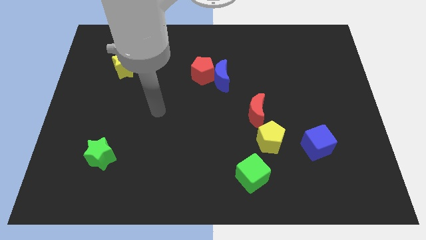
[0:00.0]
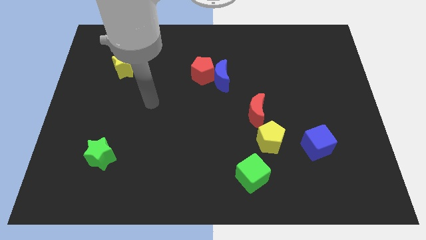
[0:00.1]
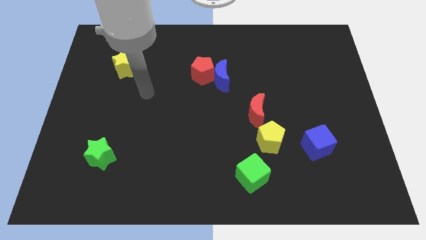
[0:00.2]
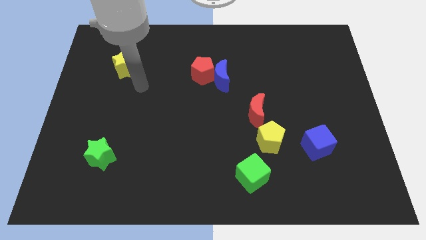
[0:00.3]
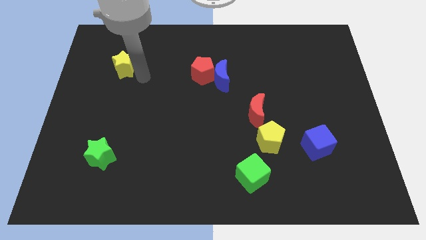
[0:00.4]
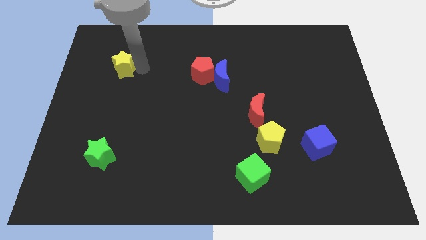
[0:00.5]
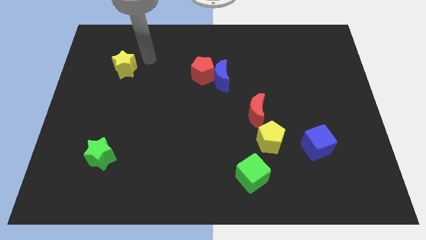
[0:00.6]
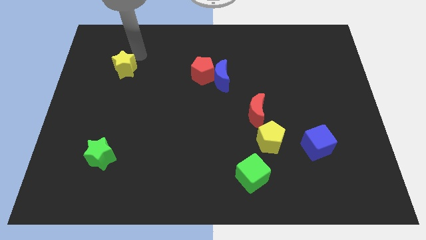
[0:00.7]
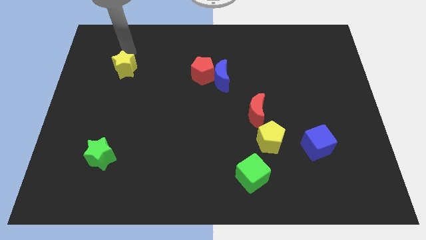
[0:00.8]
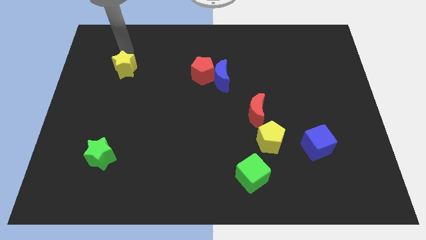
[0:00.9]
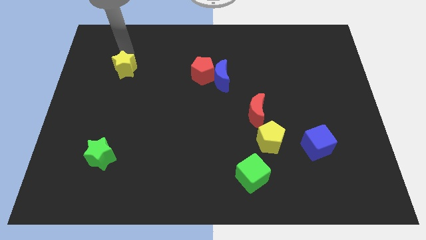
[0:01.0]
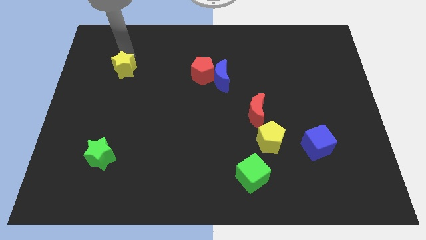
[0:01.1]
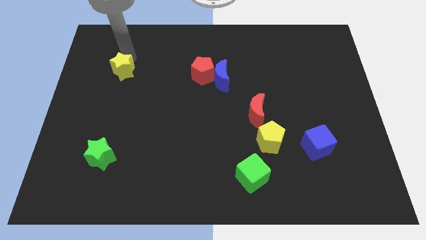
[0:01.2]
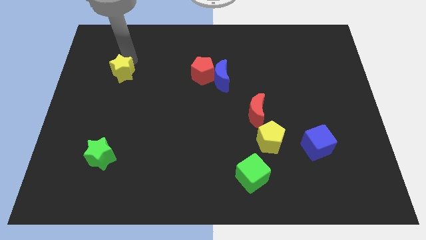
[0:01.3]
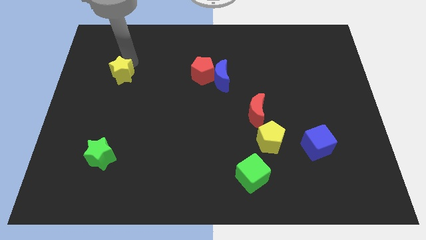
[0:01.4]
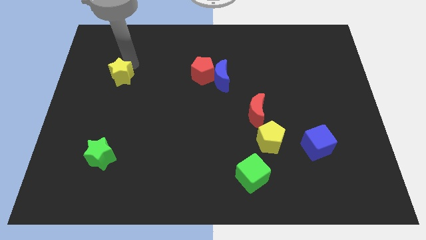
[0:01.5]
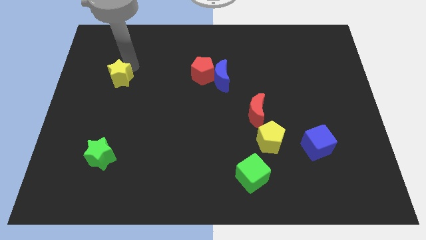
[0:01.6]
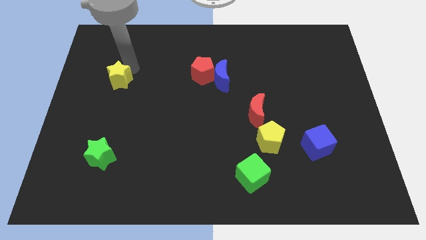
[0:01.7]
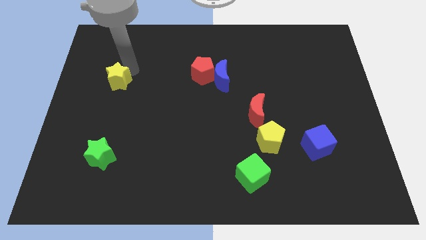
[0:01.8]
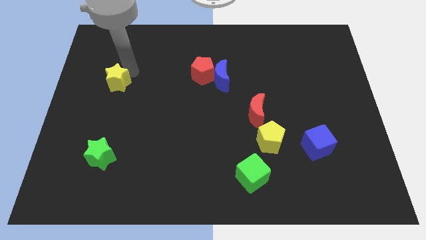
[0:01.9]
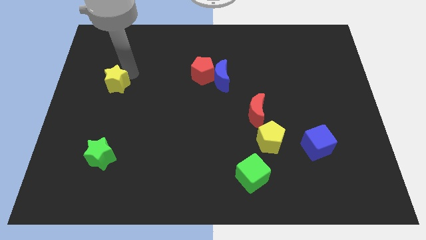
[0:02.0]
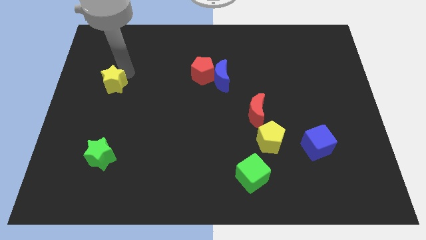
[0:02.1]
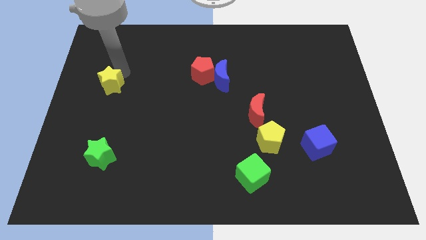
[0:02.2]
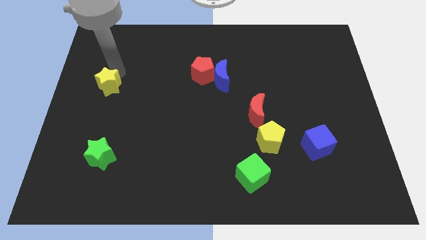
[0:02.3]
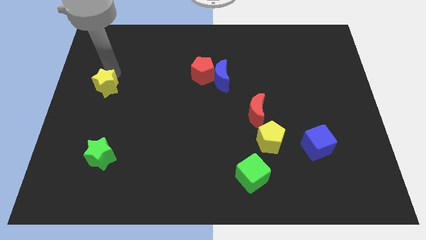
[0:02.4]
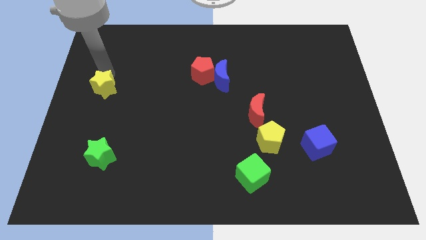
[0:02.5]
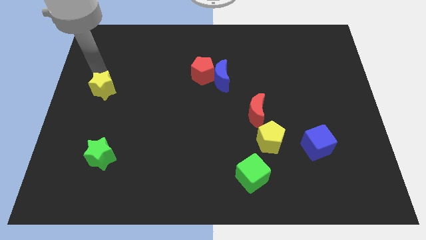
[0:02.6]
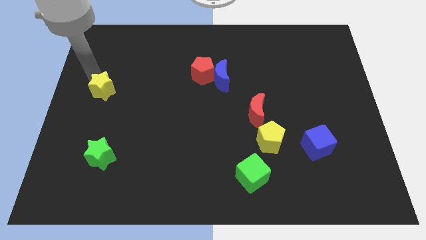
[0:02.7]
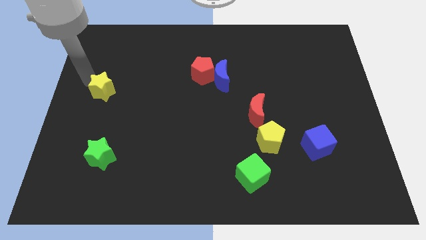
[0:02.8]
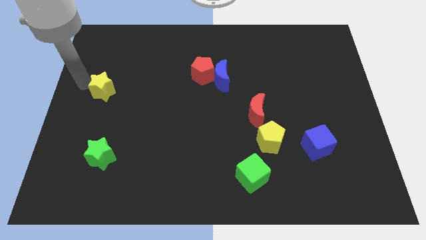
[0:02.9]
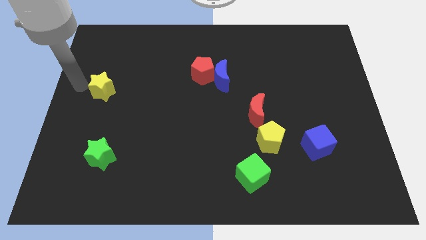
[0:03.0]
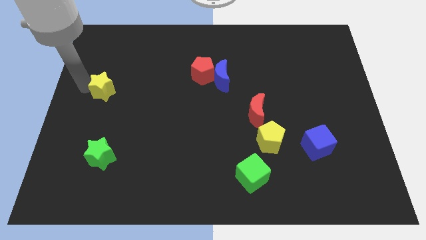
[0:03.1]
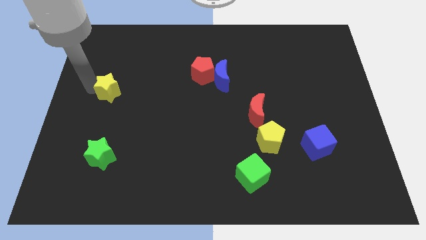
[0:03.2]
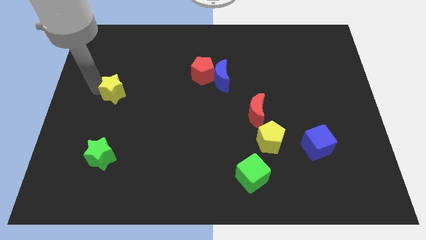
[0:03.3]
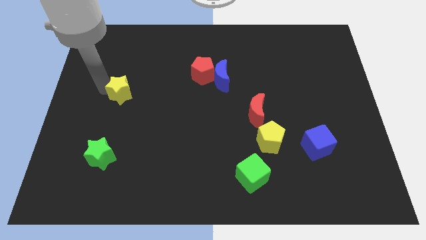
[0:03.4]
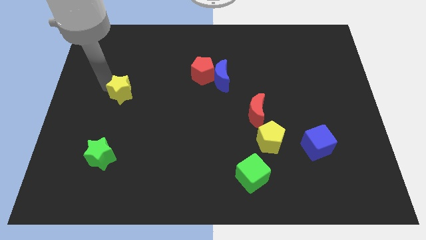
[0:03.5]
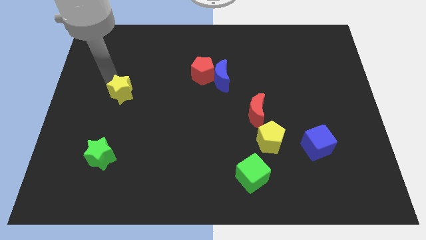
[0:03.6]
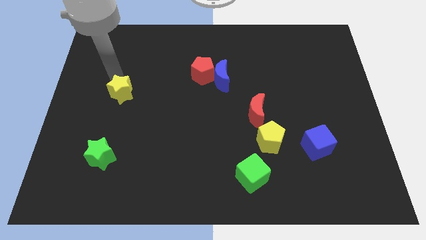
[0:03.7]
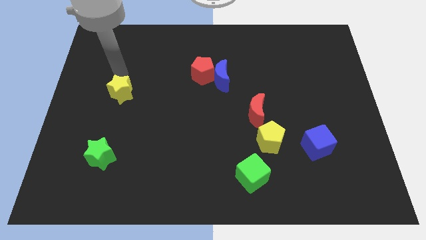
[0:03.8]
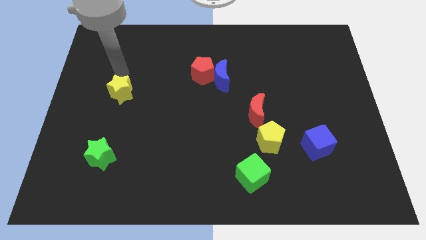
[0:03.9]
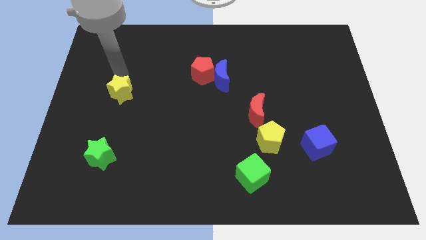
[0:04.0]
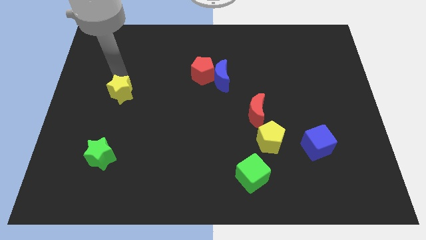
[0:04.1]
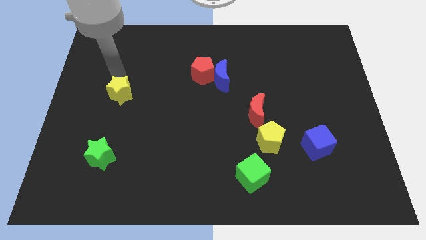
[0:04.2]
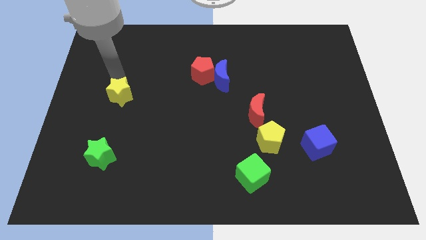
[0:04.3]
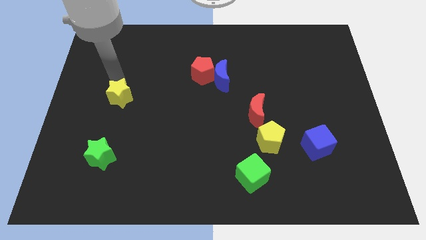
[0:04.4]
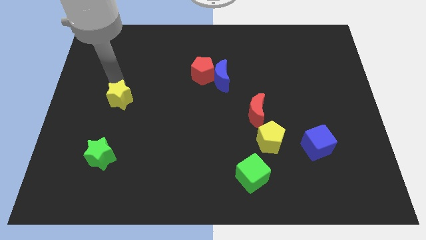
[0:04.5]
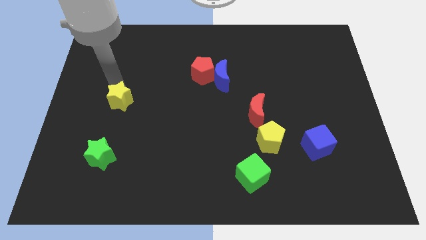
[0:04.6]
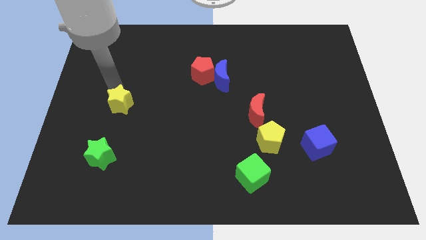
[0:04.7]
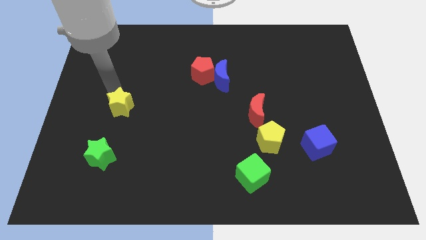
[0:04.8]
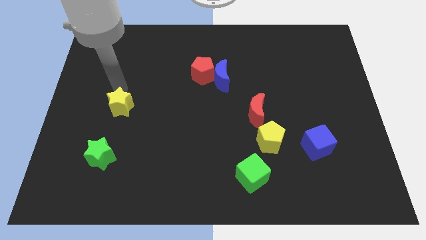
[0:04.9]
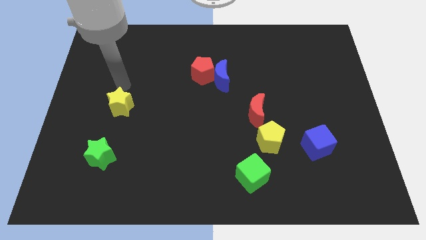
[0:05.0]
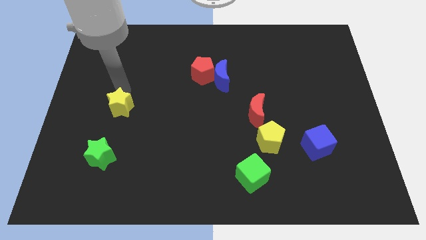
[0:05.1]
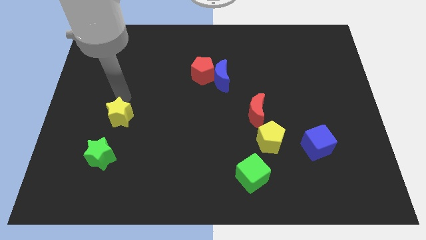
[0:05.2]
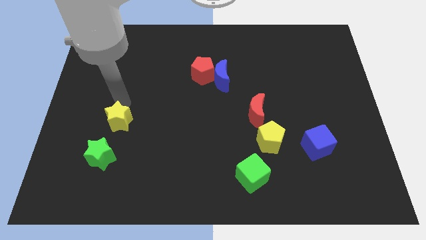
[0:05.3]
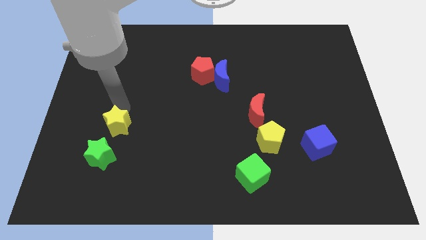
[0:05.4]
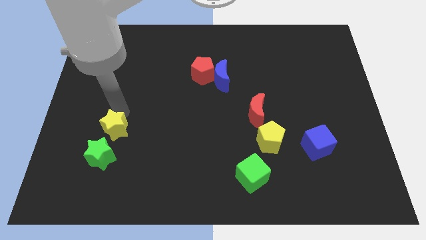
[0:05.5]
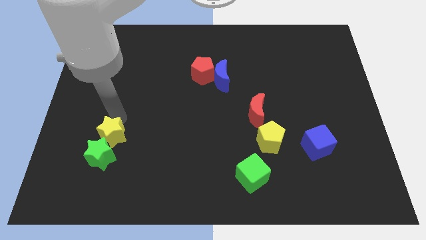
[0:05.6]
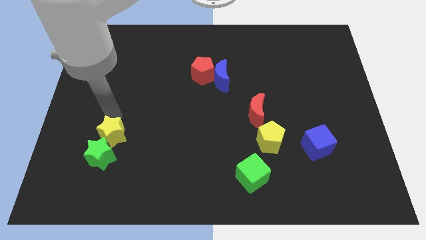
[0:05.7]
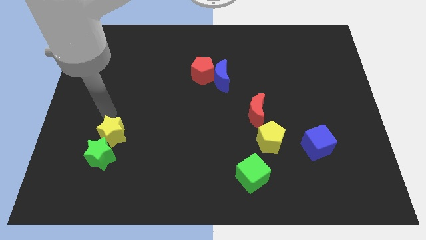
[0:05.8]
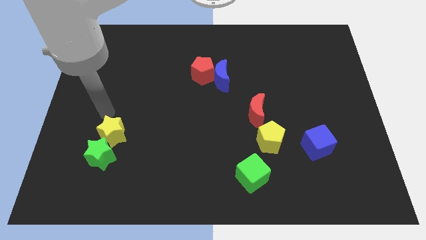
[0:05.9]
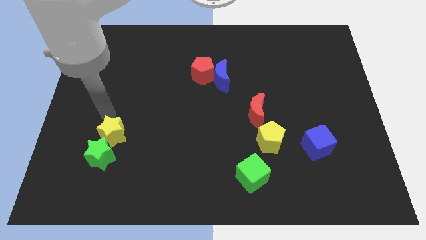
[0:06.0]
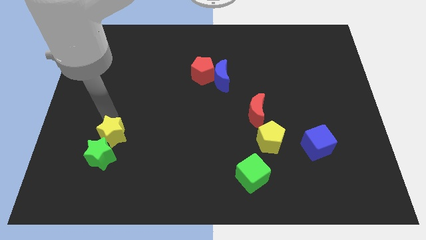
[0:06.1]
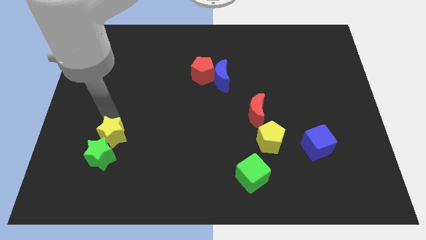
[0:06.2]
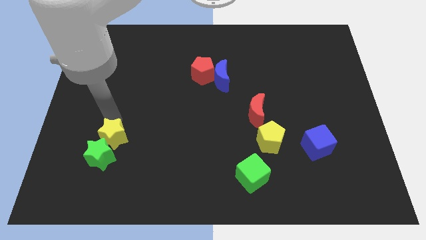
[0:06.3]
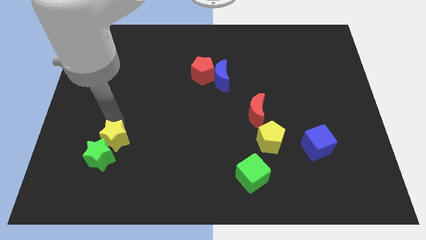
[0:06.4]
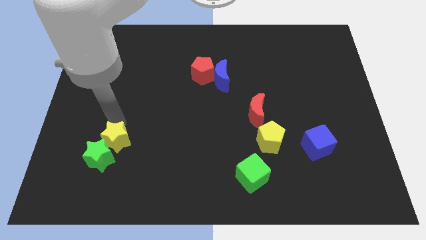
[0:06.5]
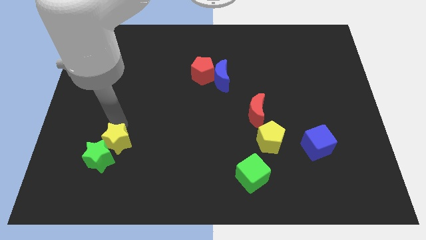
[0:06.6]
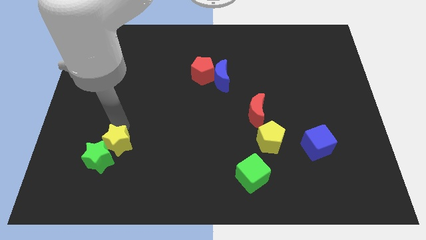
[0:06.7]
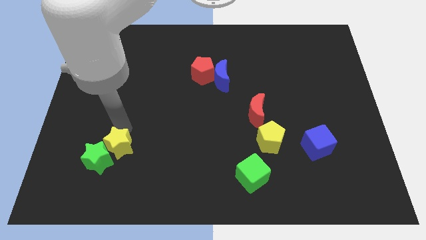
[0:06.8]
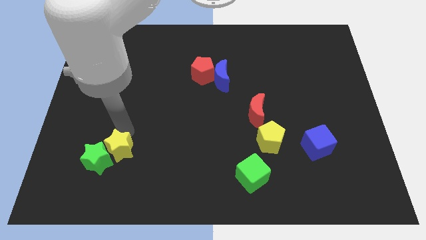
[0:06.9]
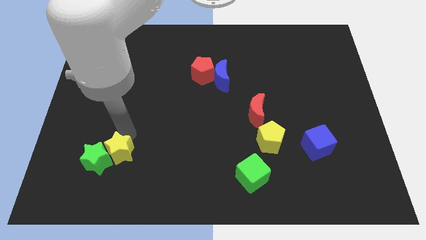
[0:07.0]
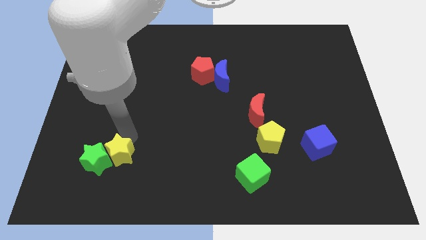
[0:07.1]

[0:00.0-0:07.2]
move the yellow star diagonally down and to the right of the green star

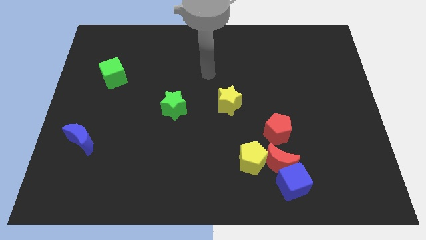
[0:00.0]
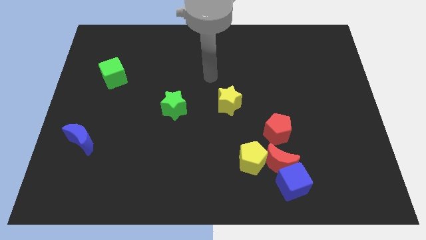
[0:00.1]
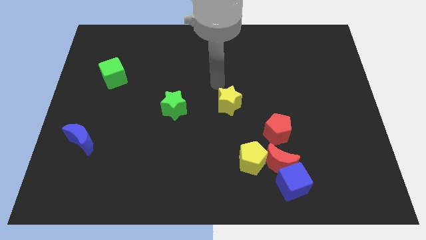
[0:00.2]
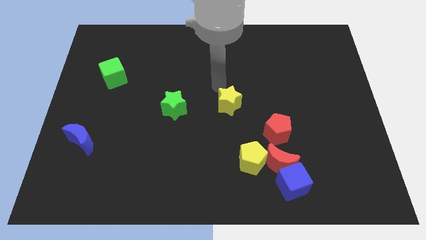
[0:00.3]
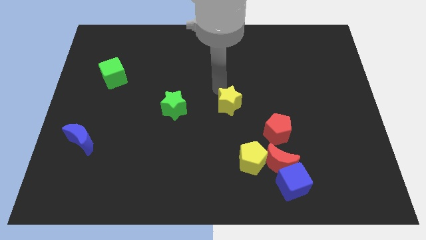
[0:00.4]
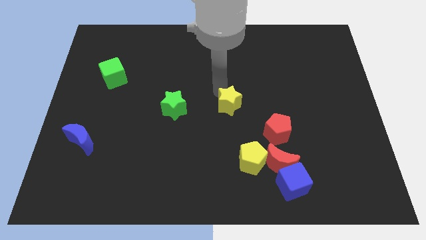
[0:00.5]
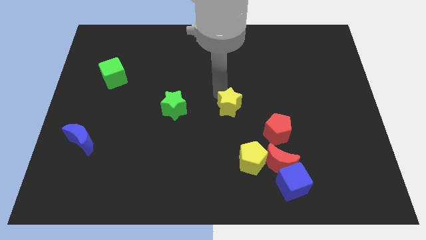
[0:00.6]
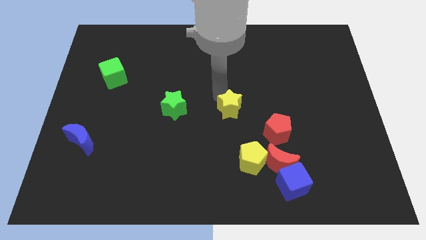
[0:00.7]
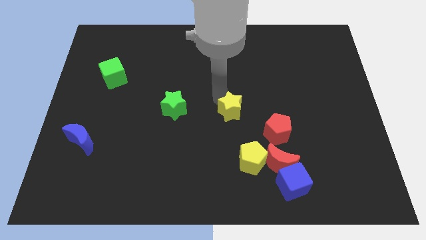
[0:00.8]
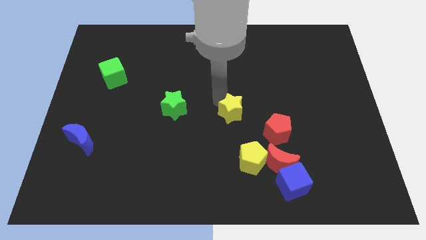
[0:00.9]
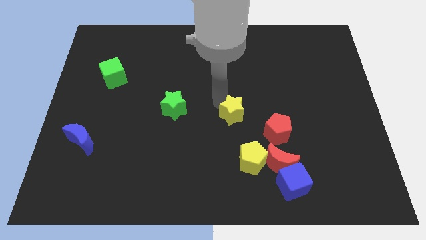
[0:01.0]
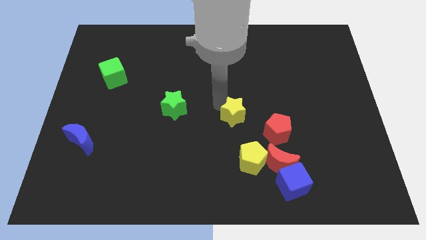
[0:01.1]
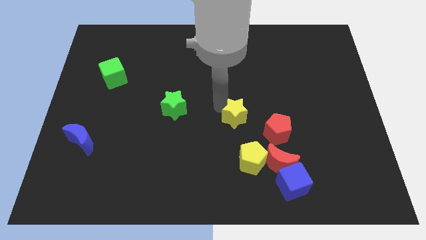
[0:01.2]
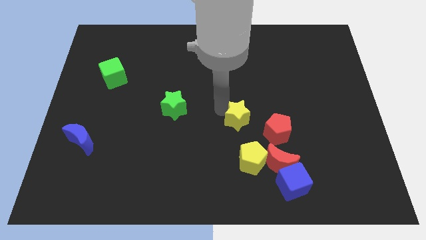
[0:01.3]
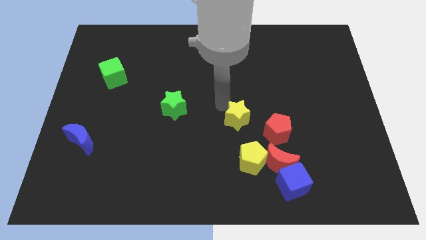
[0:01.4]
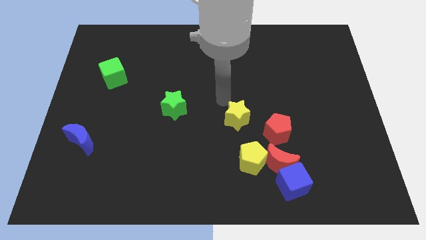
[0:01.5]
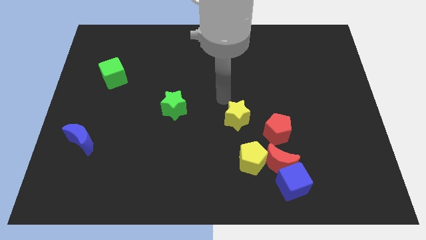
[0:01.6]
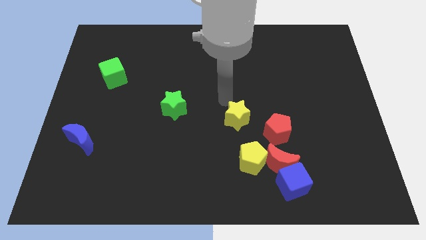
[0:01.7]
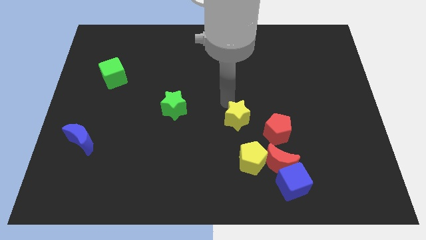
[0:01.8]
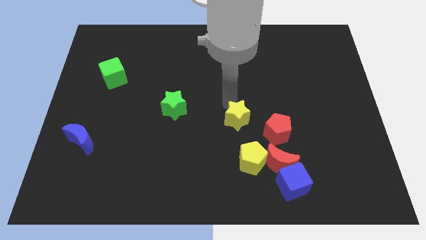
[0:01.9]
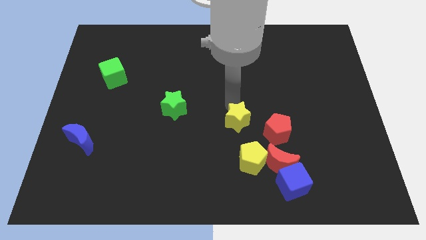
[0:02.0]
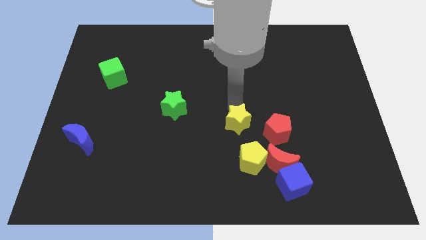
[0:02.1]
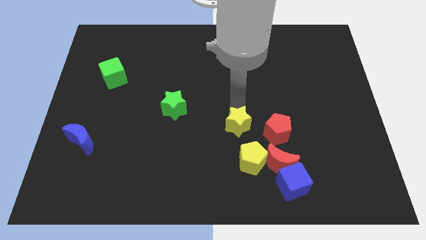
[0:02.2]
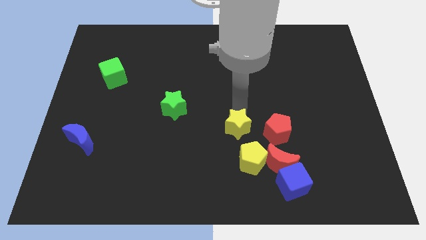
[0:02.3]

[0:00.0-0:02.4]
put the yellow star diagonally up and to the left of the red moon
